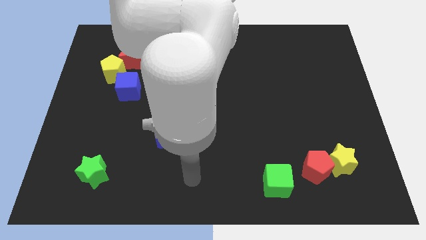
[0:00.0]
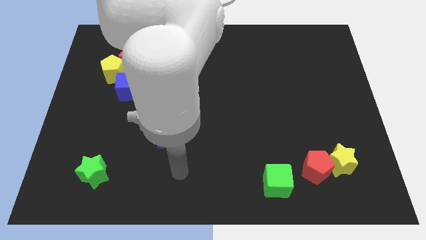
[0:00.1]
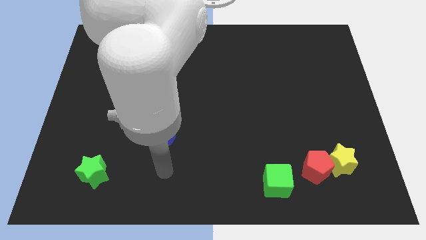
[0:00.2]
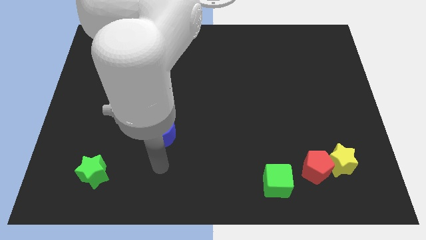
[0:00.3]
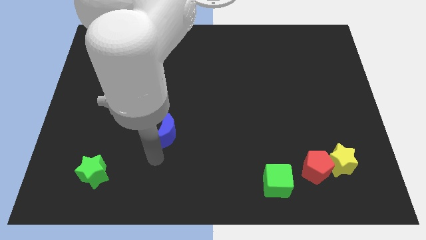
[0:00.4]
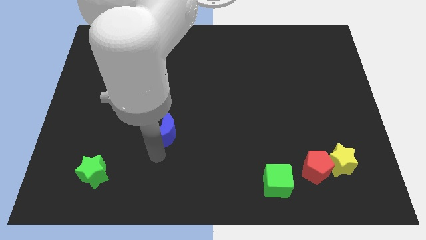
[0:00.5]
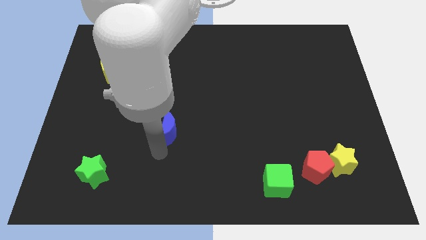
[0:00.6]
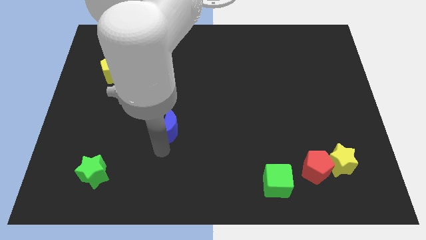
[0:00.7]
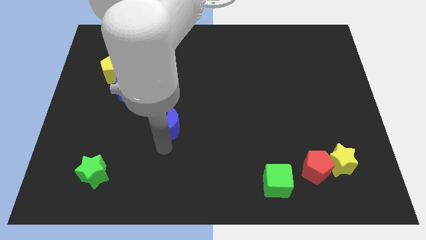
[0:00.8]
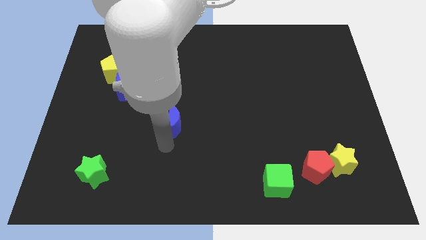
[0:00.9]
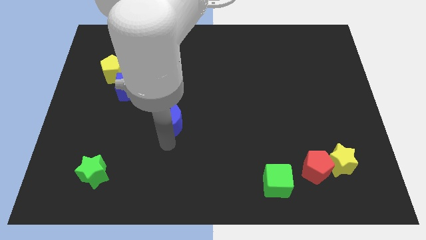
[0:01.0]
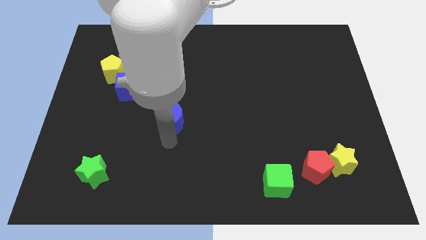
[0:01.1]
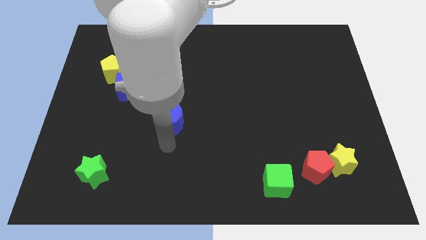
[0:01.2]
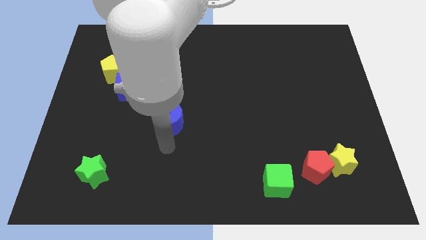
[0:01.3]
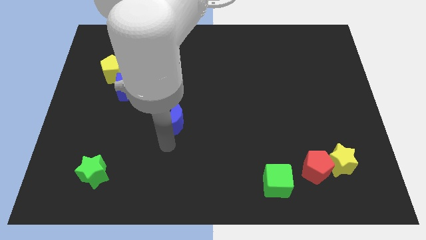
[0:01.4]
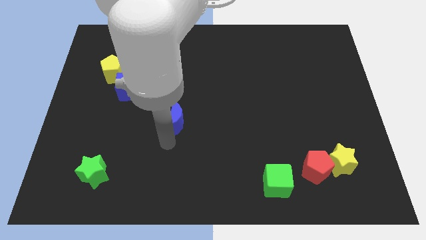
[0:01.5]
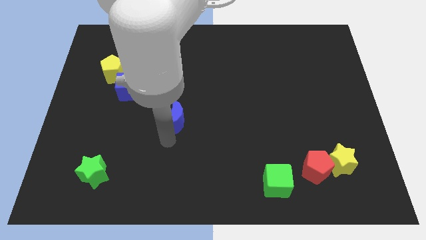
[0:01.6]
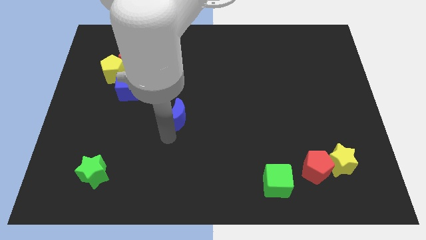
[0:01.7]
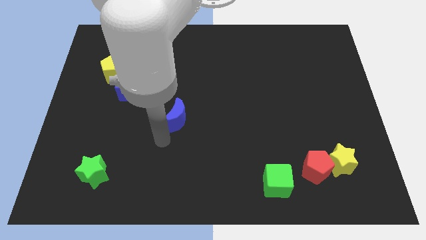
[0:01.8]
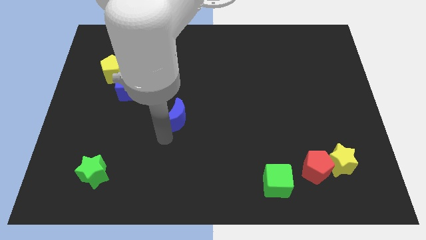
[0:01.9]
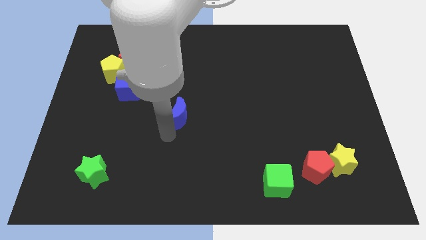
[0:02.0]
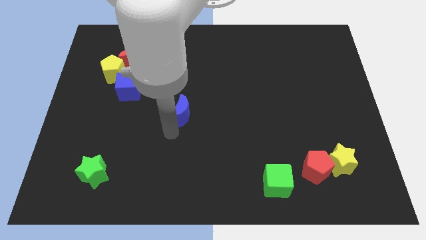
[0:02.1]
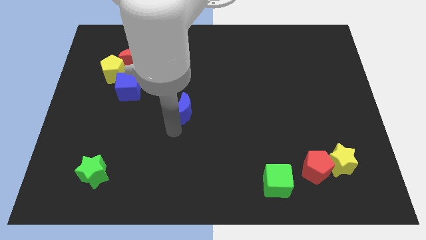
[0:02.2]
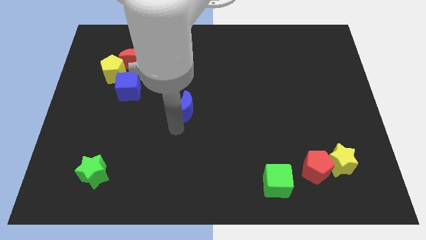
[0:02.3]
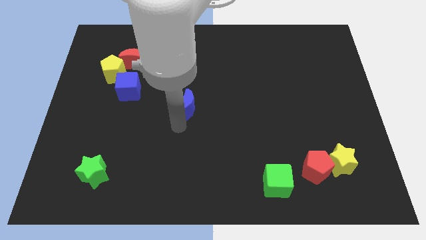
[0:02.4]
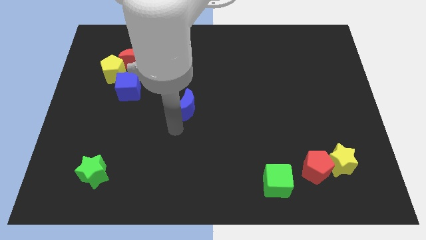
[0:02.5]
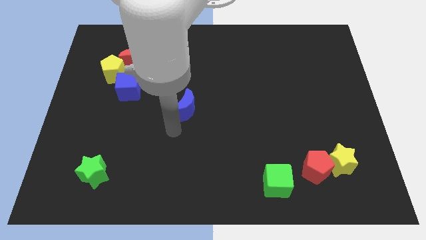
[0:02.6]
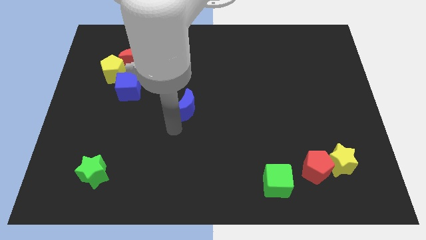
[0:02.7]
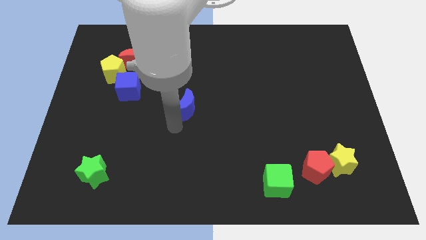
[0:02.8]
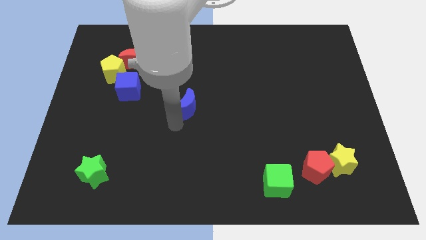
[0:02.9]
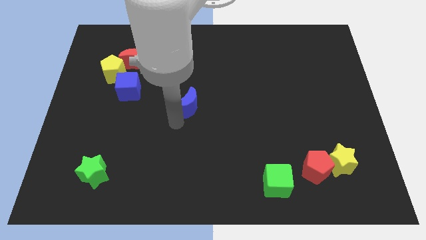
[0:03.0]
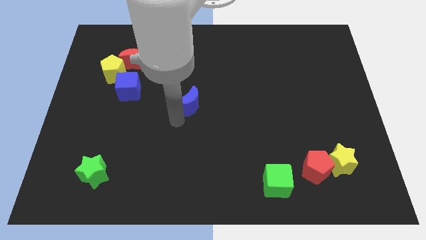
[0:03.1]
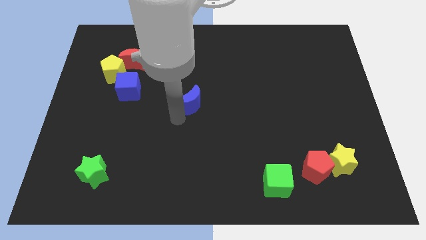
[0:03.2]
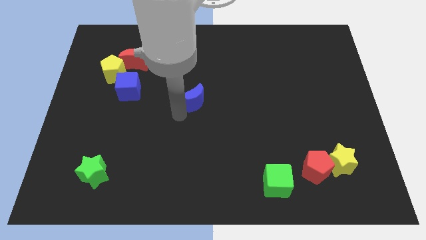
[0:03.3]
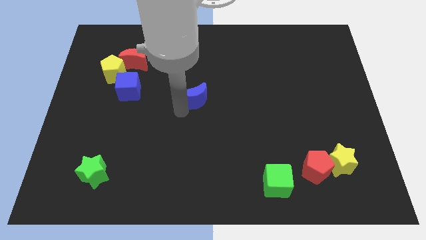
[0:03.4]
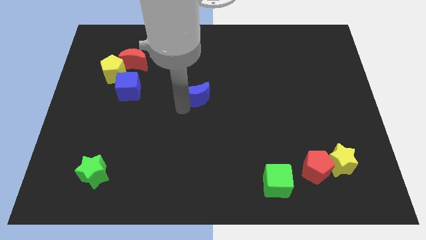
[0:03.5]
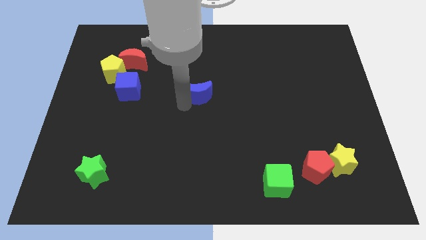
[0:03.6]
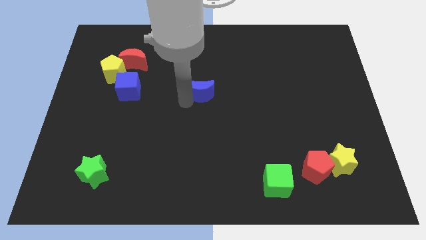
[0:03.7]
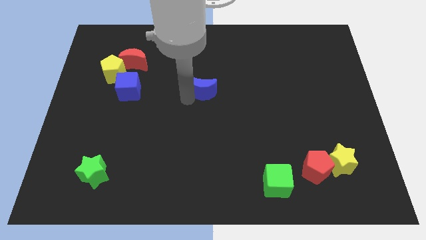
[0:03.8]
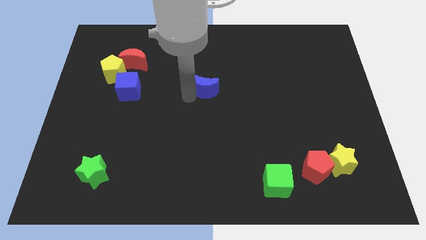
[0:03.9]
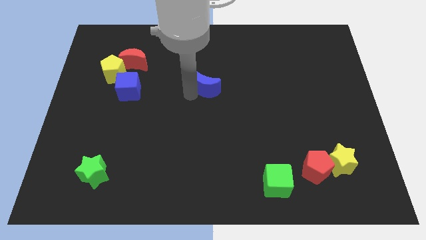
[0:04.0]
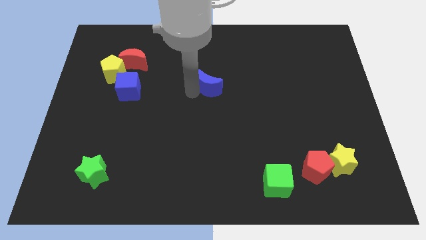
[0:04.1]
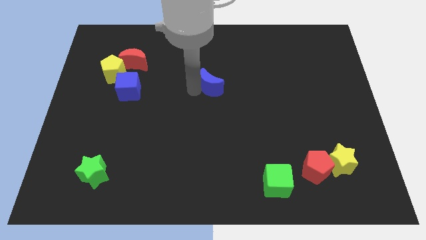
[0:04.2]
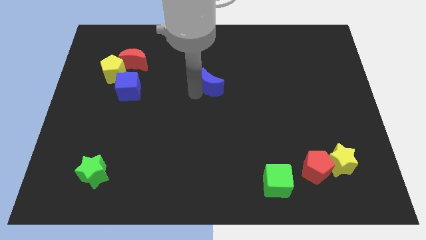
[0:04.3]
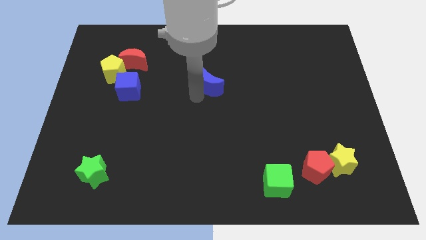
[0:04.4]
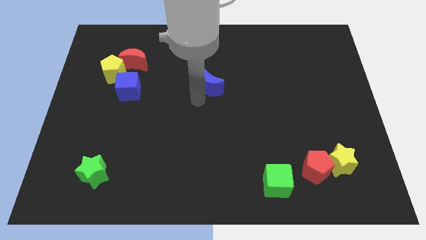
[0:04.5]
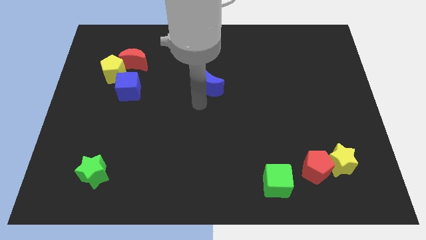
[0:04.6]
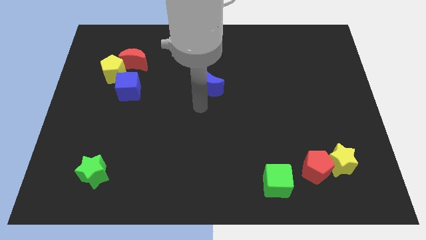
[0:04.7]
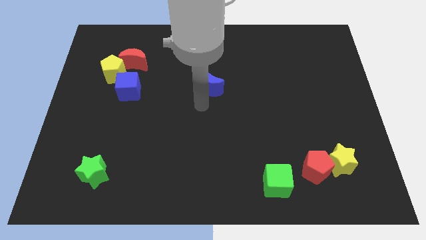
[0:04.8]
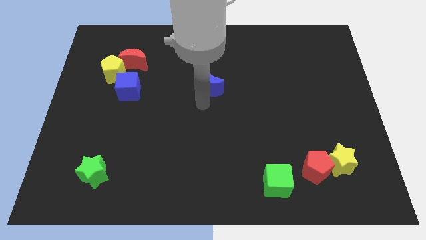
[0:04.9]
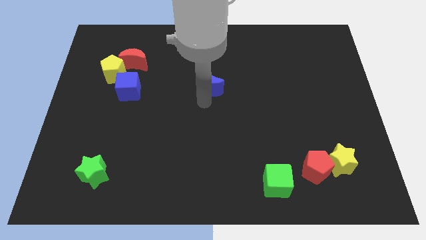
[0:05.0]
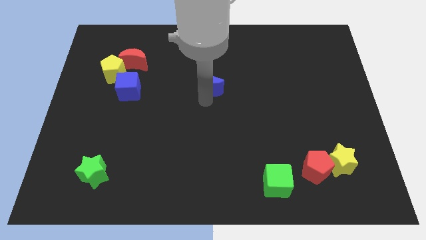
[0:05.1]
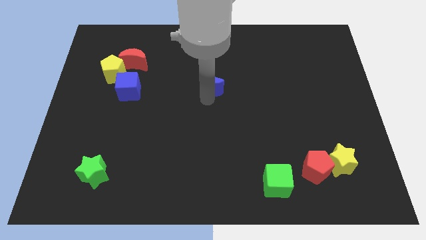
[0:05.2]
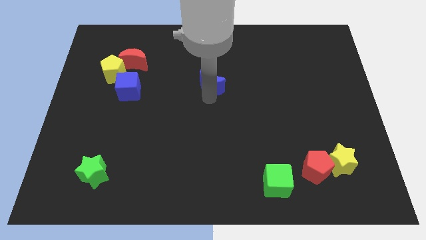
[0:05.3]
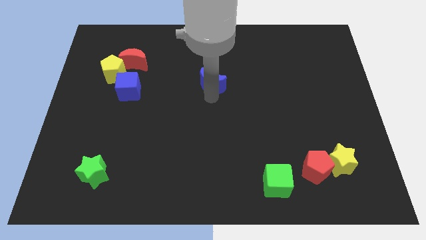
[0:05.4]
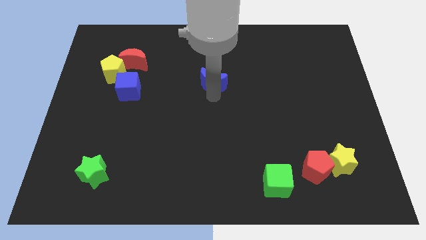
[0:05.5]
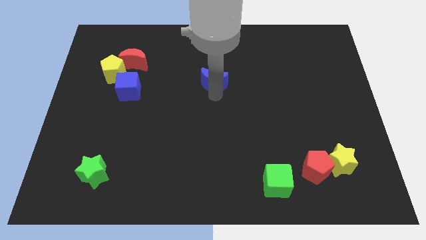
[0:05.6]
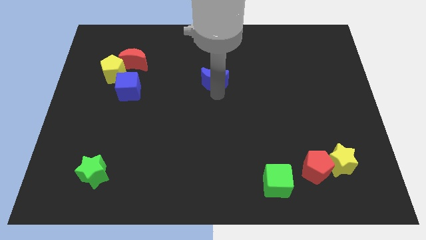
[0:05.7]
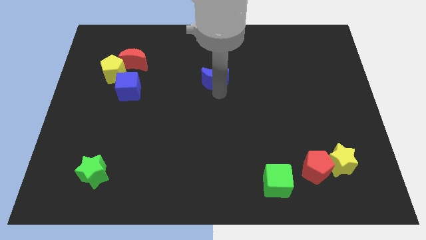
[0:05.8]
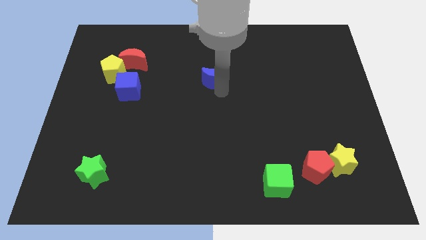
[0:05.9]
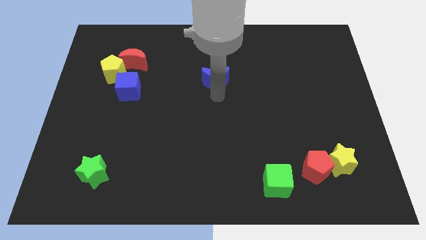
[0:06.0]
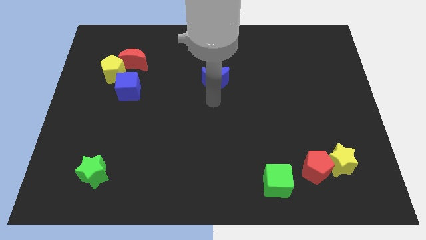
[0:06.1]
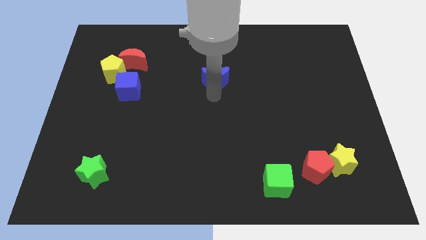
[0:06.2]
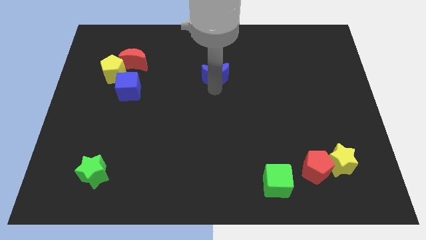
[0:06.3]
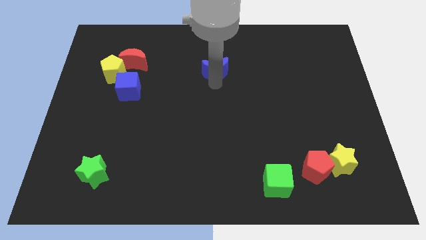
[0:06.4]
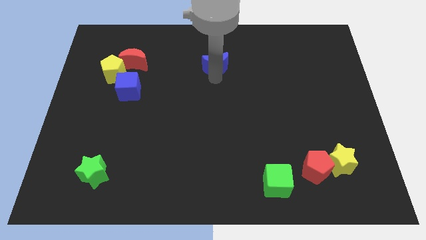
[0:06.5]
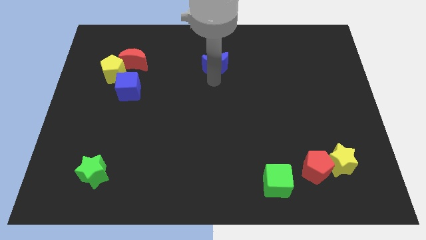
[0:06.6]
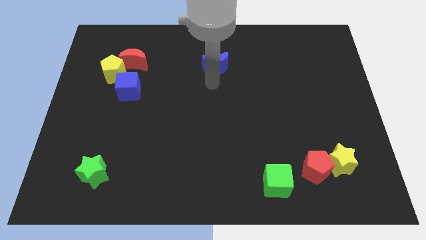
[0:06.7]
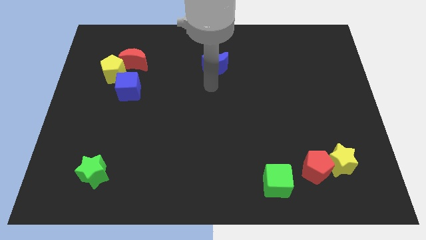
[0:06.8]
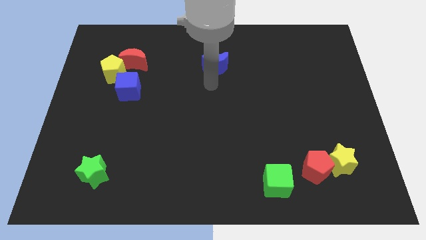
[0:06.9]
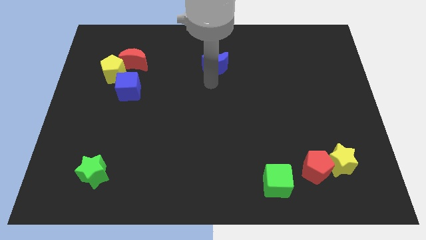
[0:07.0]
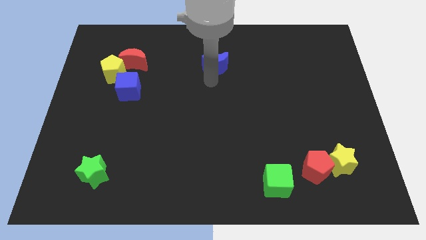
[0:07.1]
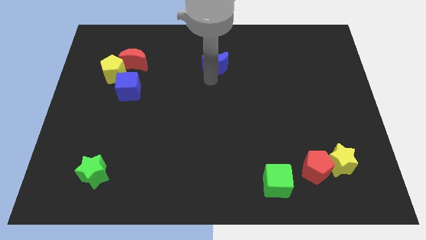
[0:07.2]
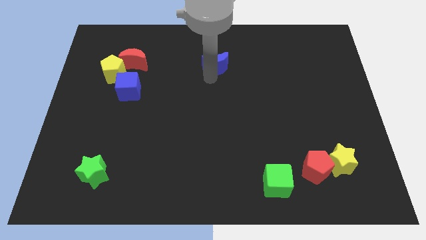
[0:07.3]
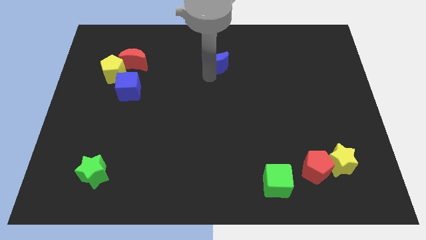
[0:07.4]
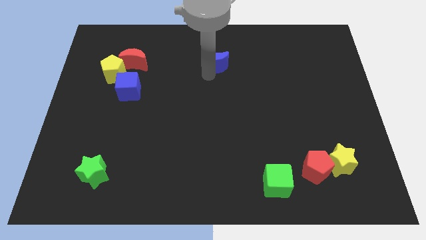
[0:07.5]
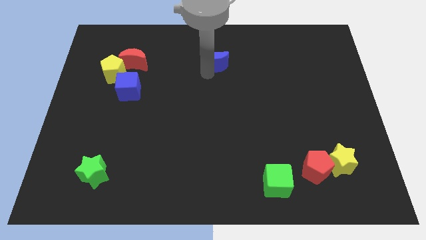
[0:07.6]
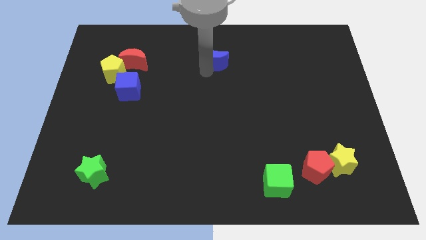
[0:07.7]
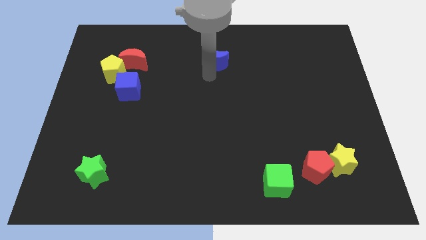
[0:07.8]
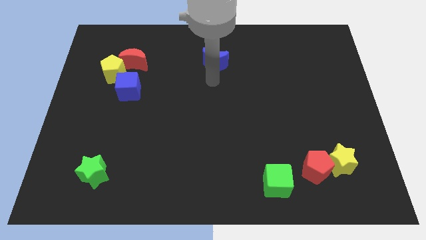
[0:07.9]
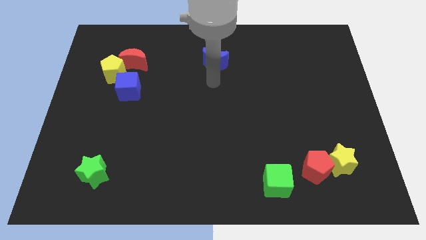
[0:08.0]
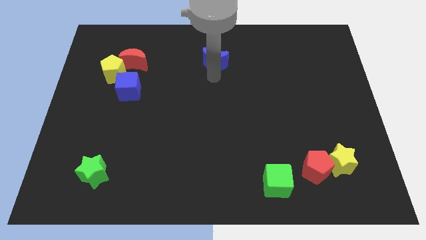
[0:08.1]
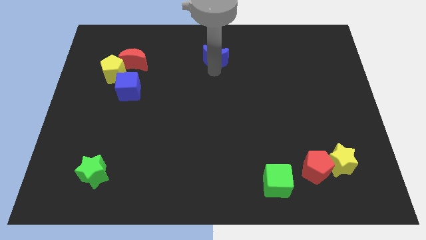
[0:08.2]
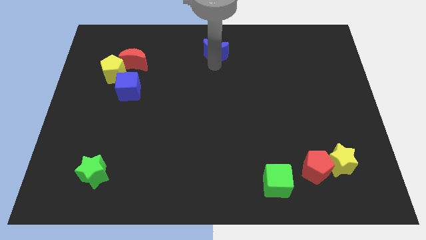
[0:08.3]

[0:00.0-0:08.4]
put the blue moon to the top
